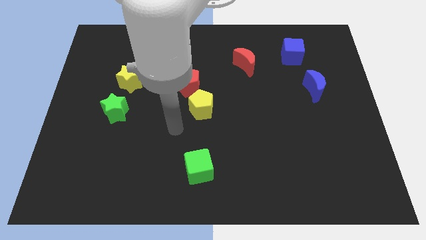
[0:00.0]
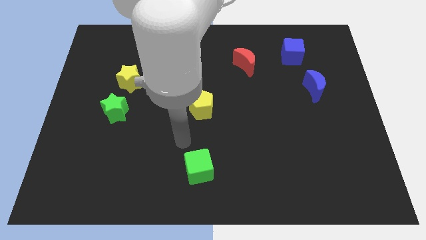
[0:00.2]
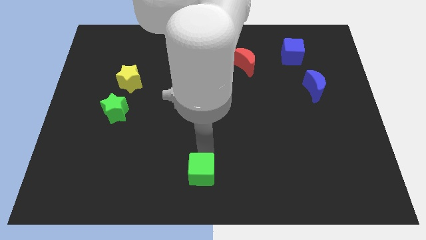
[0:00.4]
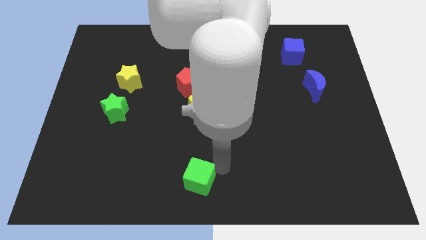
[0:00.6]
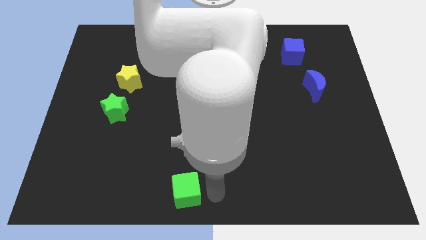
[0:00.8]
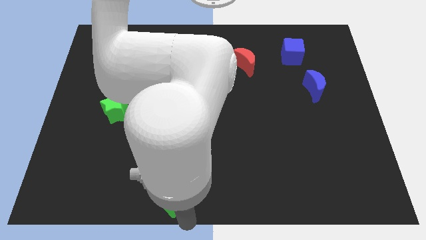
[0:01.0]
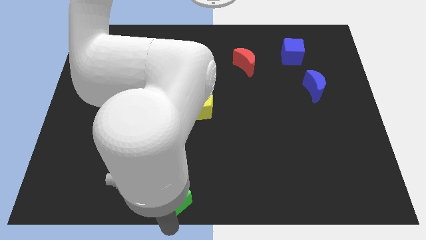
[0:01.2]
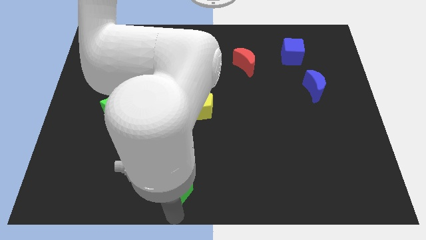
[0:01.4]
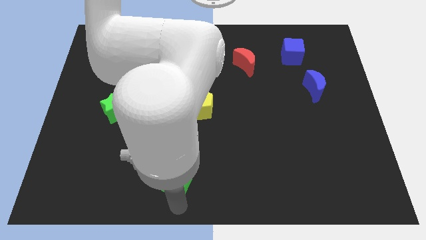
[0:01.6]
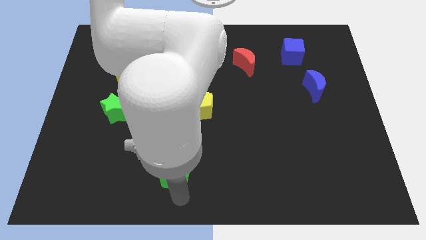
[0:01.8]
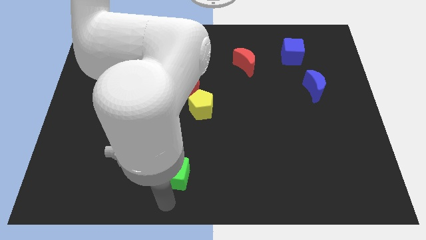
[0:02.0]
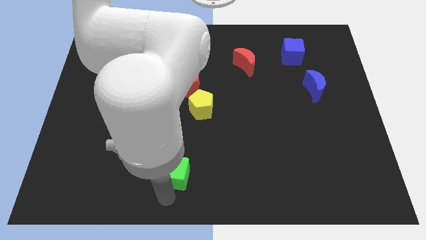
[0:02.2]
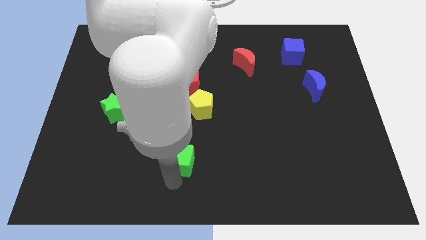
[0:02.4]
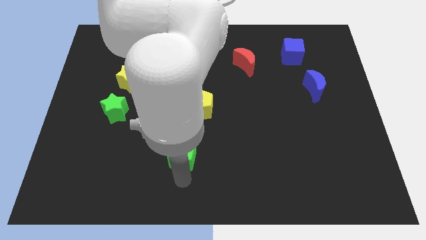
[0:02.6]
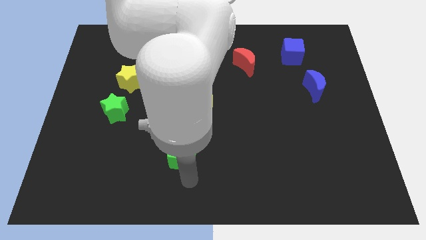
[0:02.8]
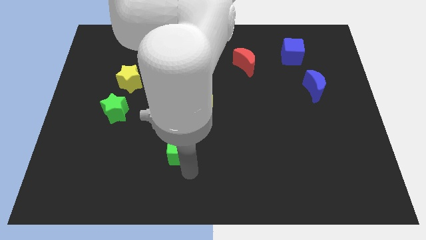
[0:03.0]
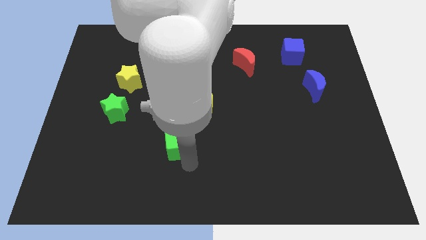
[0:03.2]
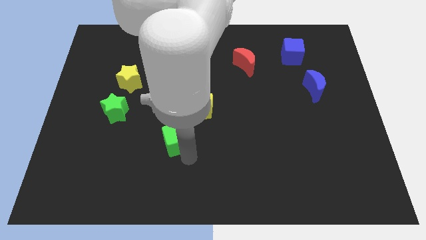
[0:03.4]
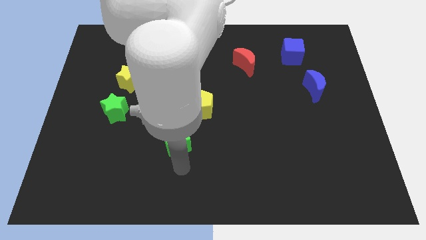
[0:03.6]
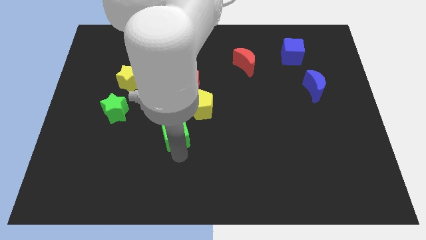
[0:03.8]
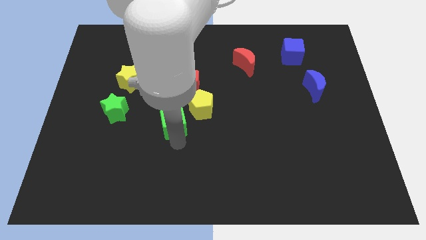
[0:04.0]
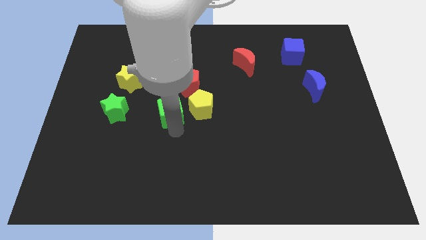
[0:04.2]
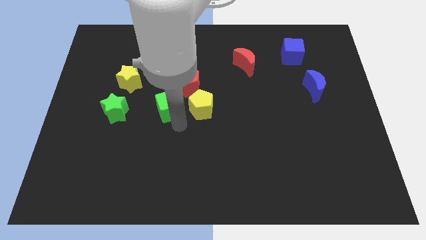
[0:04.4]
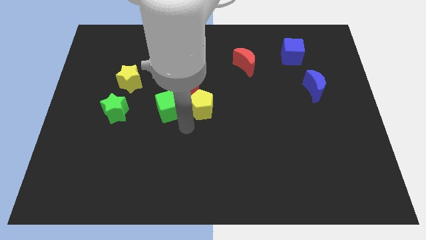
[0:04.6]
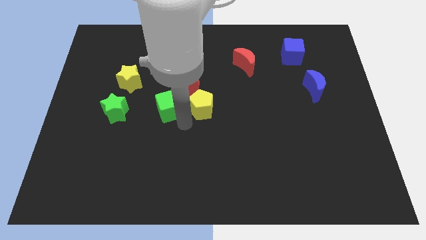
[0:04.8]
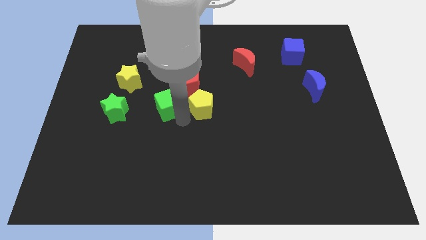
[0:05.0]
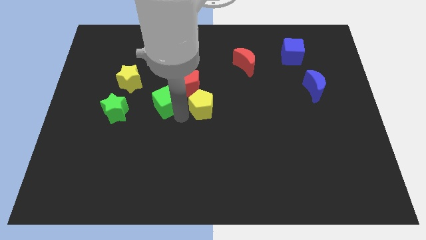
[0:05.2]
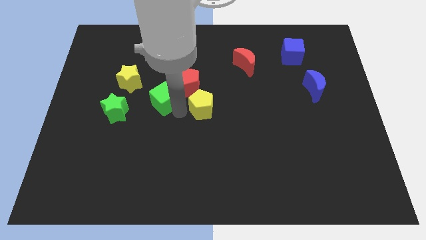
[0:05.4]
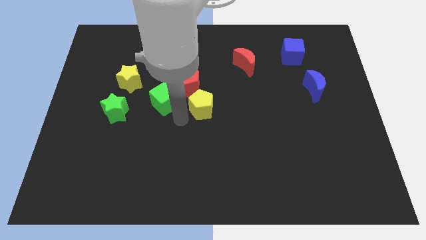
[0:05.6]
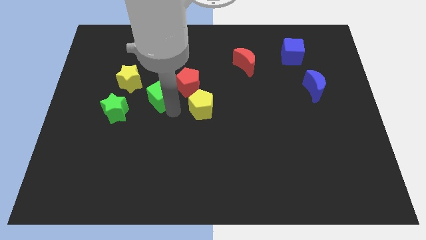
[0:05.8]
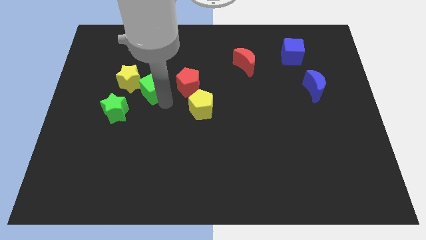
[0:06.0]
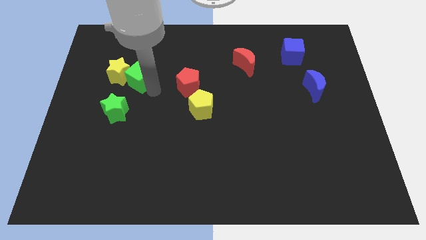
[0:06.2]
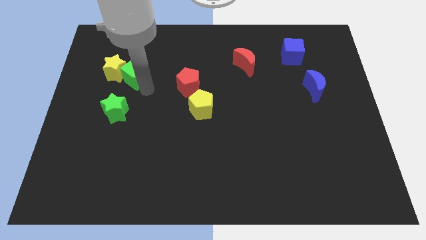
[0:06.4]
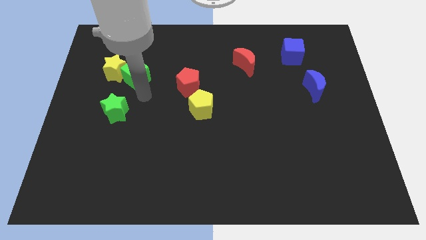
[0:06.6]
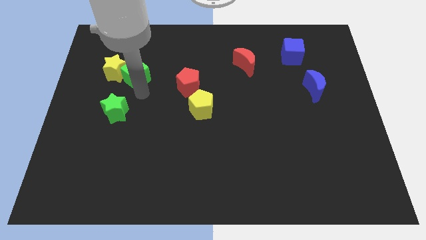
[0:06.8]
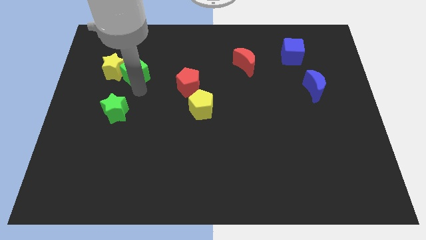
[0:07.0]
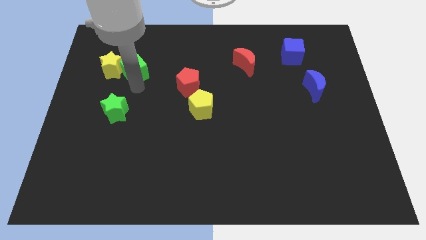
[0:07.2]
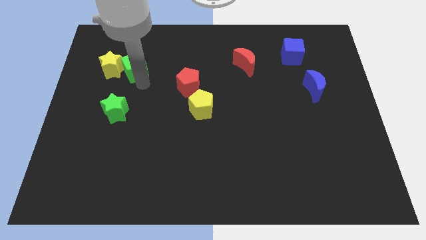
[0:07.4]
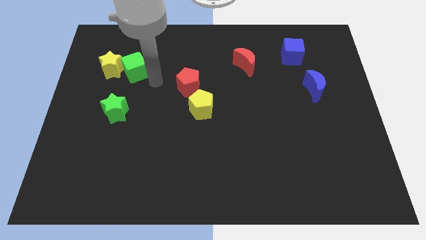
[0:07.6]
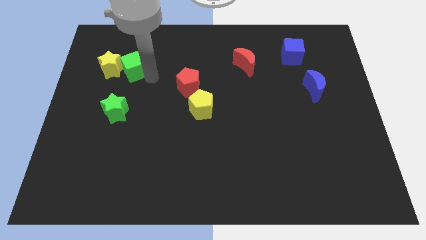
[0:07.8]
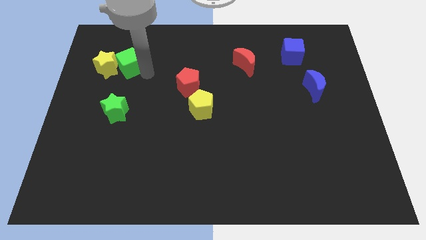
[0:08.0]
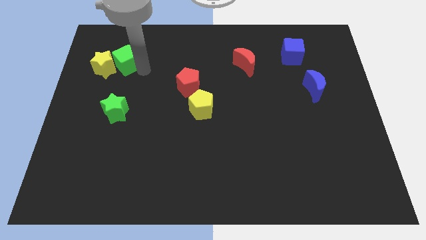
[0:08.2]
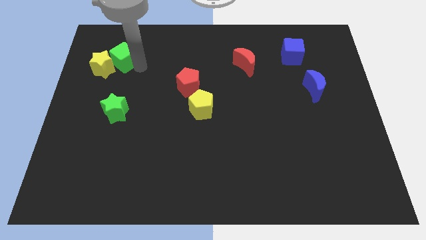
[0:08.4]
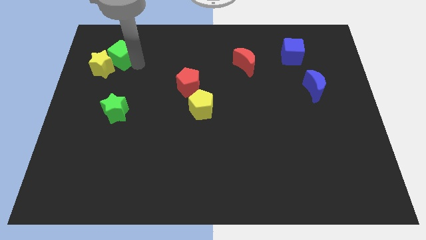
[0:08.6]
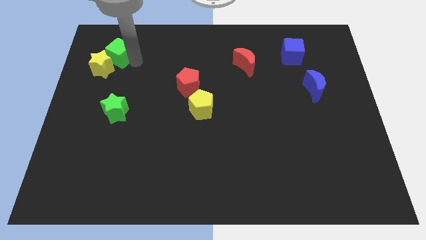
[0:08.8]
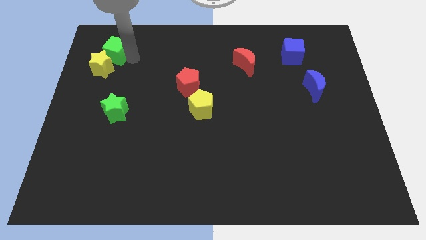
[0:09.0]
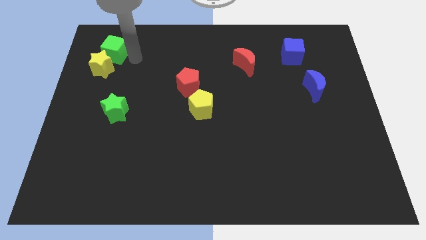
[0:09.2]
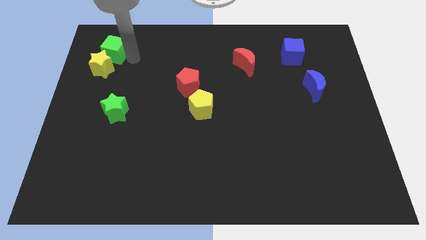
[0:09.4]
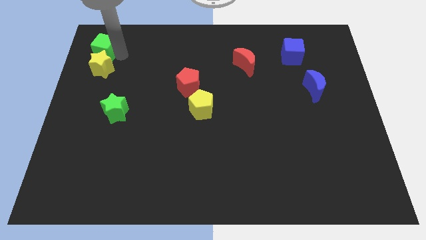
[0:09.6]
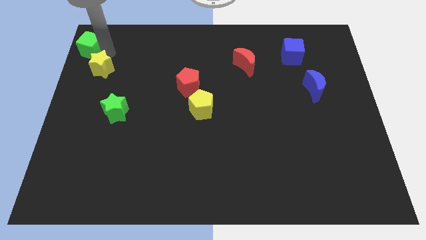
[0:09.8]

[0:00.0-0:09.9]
move the green cube to the top left corner

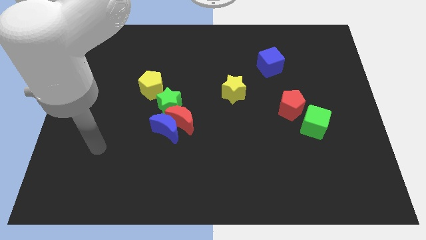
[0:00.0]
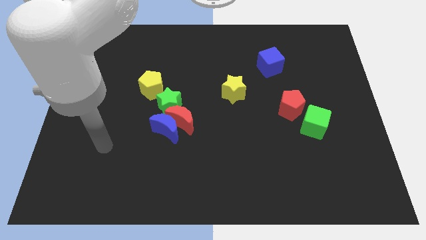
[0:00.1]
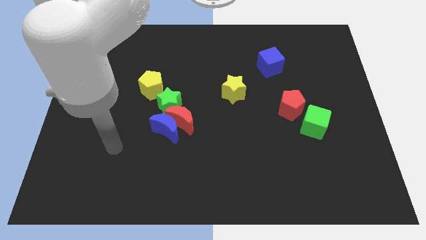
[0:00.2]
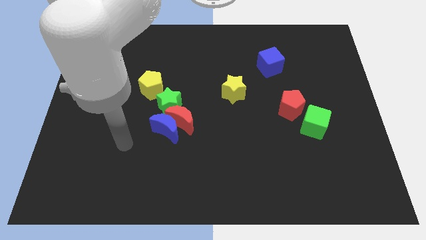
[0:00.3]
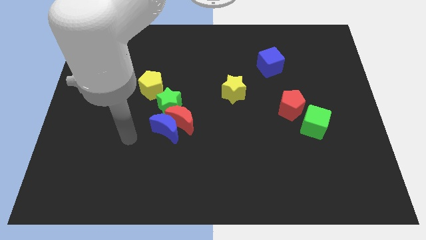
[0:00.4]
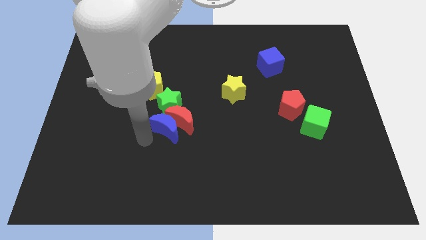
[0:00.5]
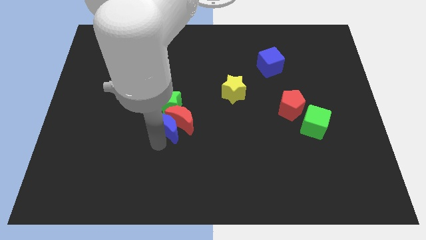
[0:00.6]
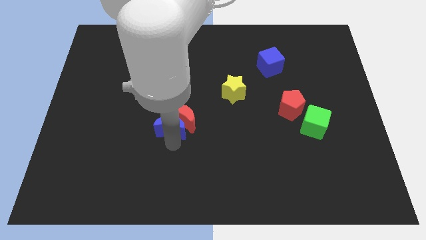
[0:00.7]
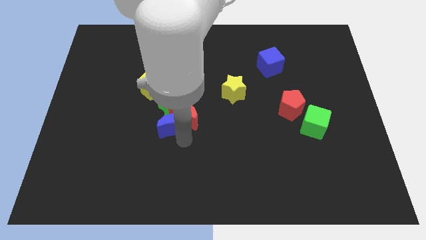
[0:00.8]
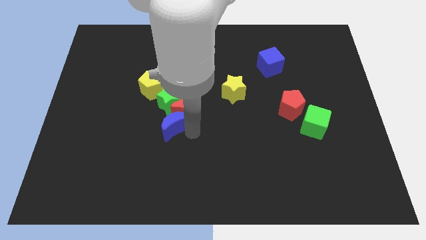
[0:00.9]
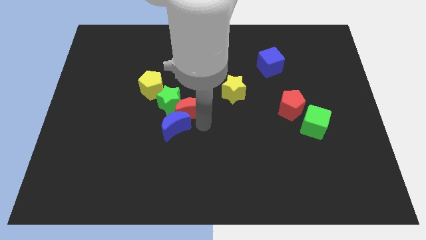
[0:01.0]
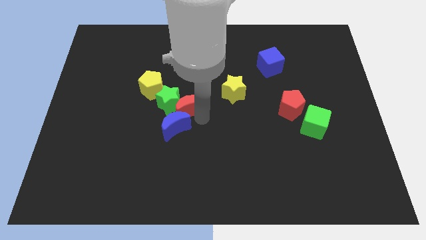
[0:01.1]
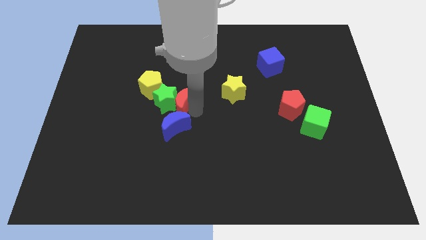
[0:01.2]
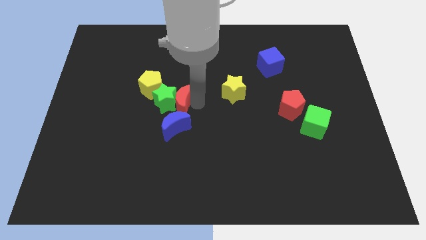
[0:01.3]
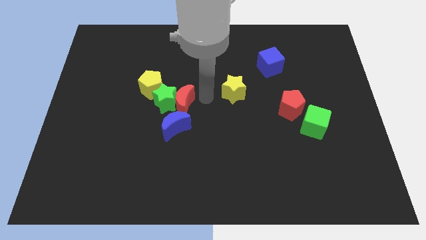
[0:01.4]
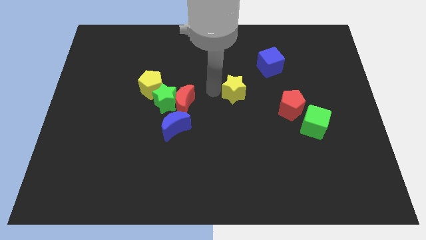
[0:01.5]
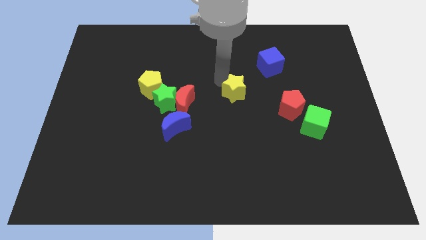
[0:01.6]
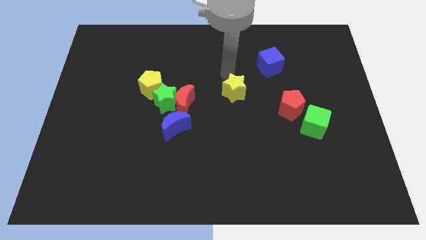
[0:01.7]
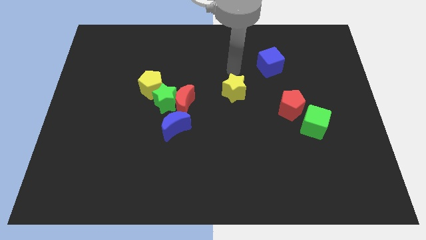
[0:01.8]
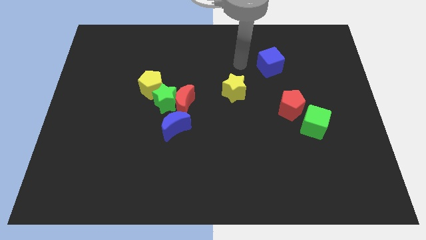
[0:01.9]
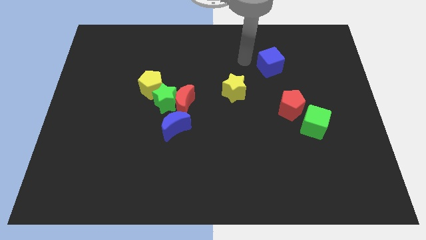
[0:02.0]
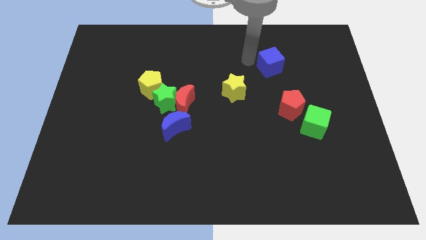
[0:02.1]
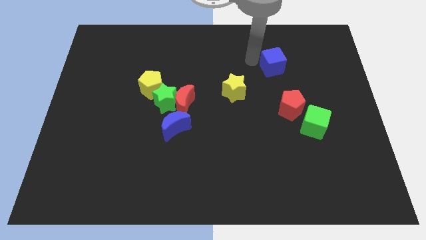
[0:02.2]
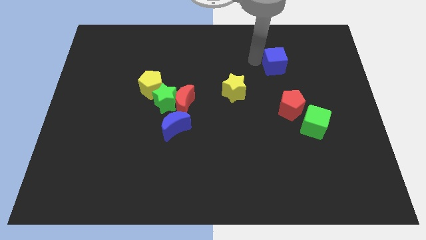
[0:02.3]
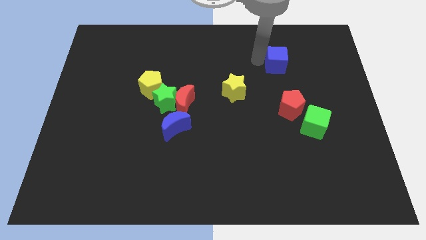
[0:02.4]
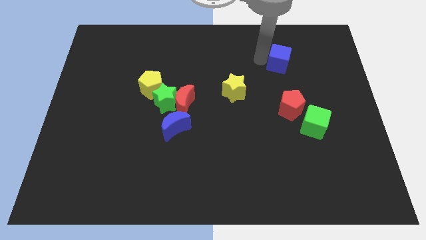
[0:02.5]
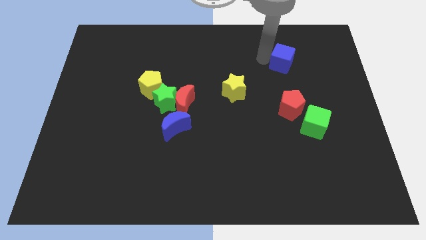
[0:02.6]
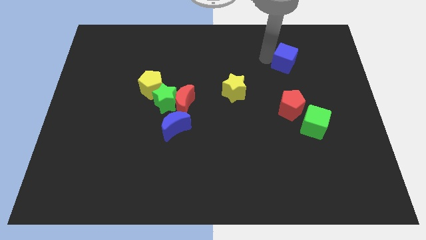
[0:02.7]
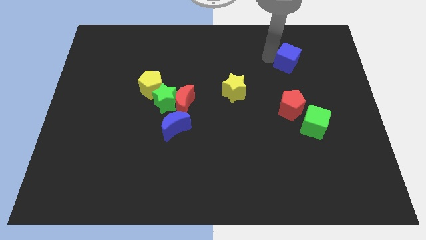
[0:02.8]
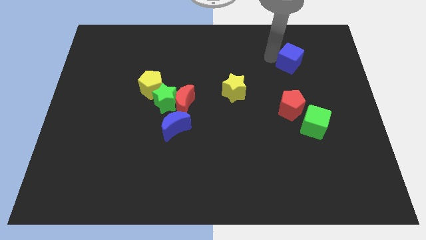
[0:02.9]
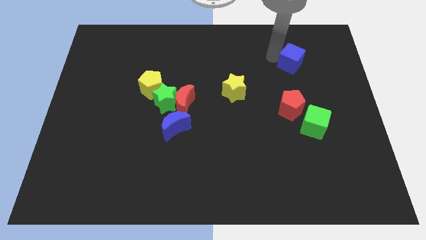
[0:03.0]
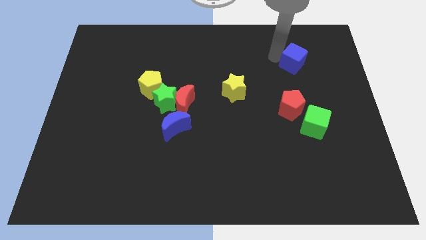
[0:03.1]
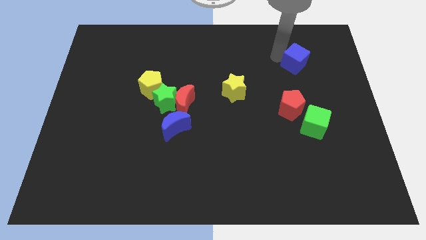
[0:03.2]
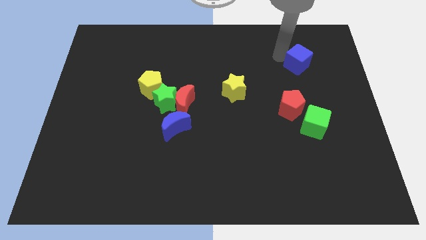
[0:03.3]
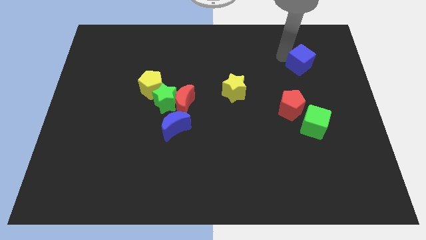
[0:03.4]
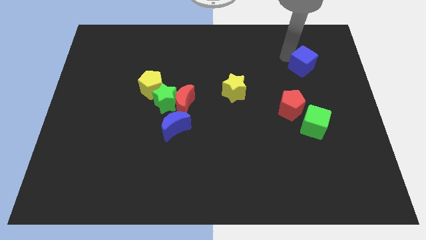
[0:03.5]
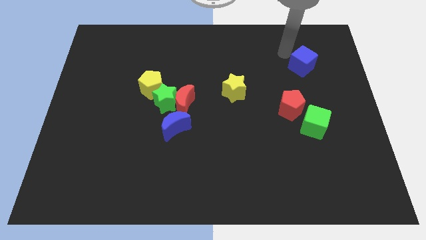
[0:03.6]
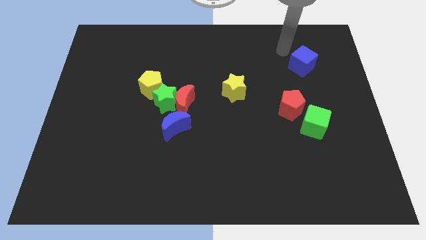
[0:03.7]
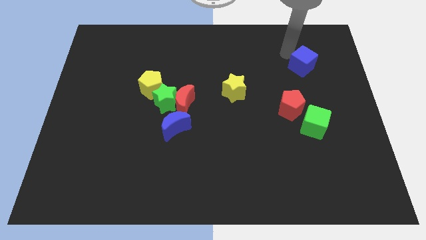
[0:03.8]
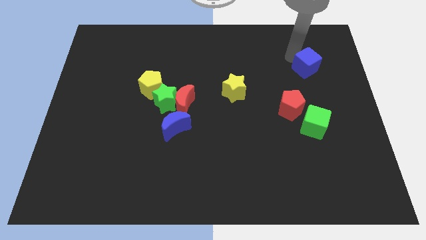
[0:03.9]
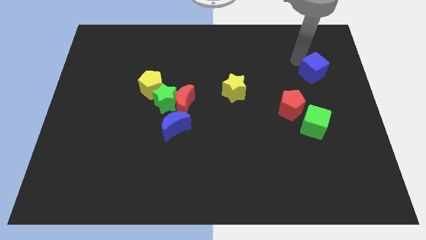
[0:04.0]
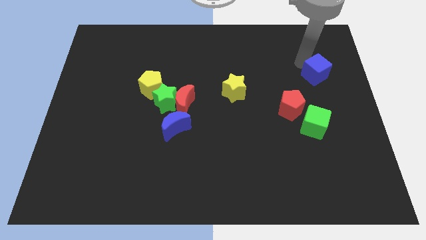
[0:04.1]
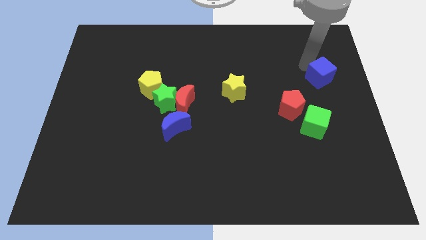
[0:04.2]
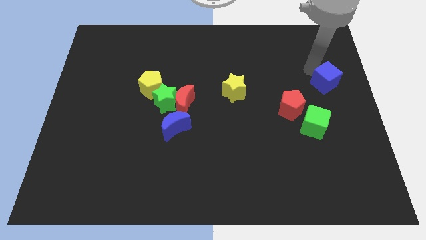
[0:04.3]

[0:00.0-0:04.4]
push the blue cube to the center right
